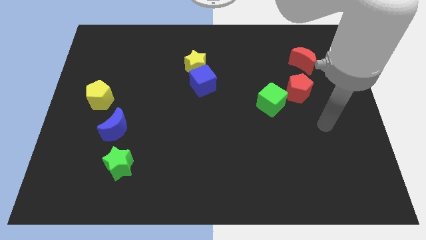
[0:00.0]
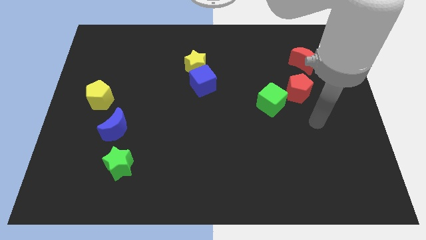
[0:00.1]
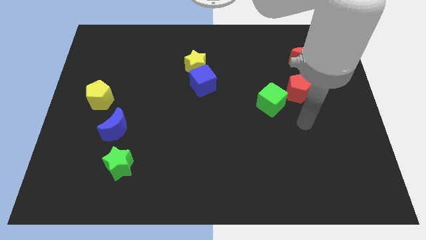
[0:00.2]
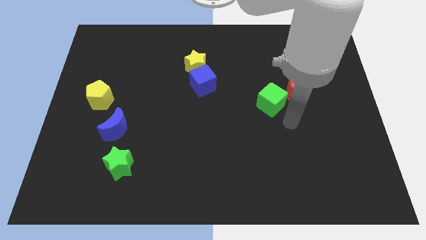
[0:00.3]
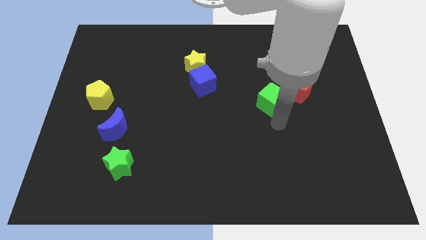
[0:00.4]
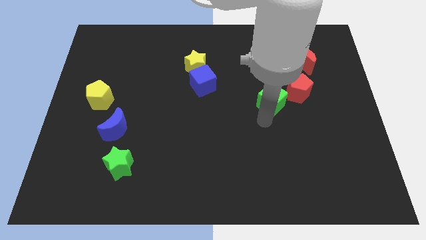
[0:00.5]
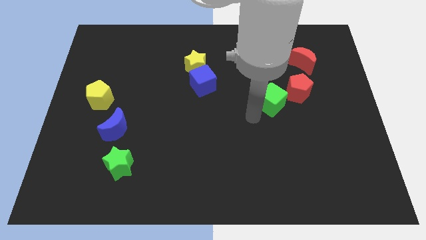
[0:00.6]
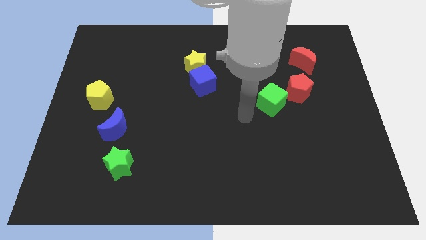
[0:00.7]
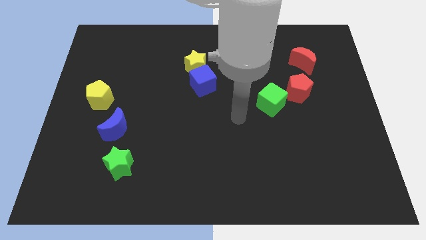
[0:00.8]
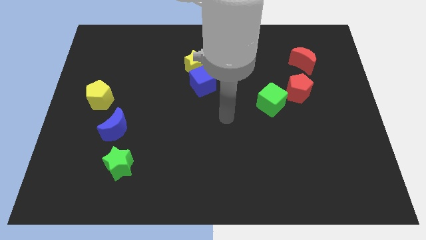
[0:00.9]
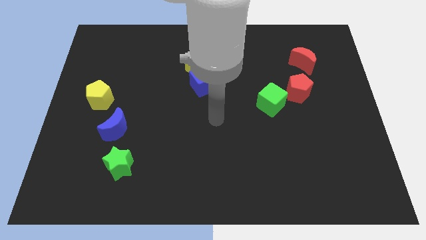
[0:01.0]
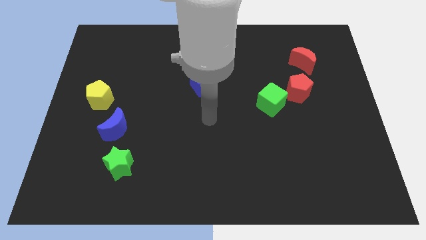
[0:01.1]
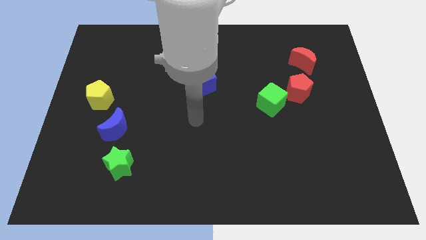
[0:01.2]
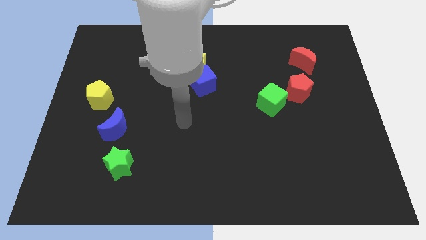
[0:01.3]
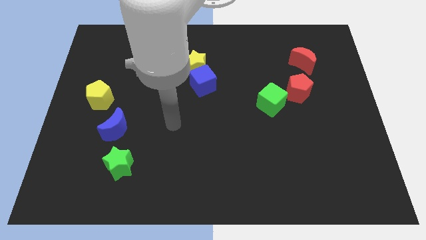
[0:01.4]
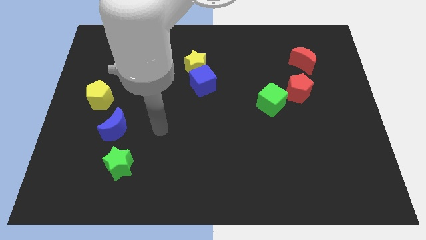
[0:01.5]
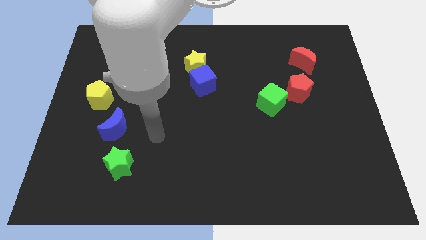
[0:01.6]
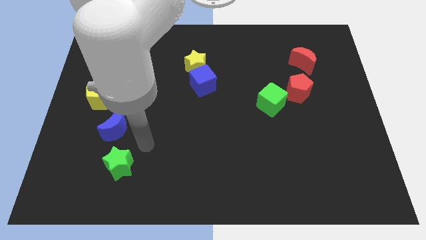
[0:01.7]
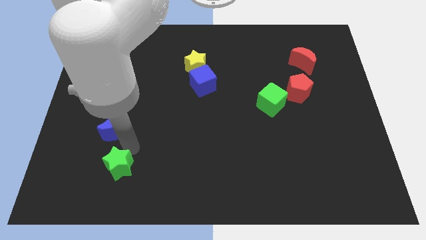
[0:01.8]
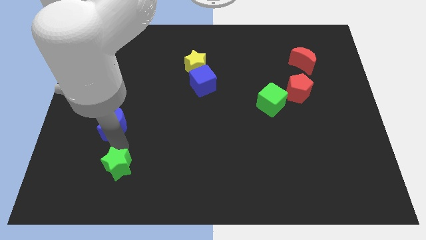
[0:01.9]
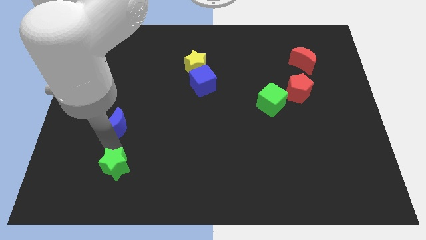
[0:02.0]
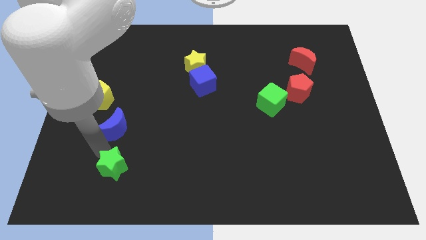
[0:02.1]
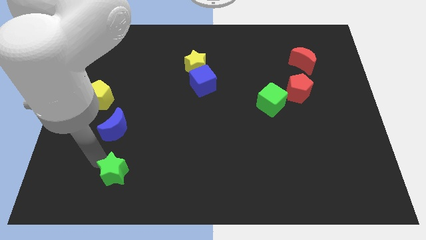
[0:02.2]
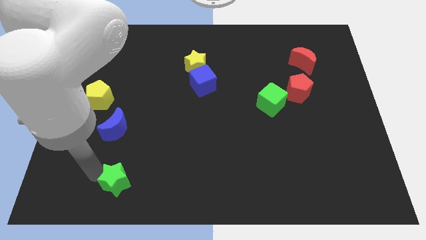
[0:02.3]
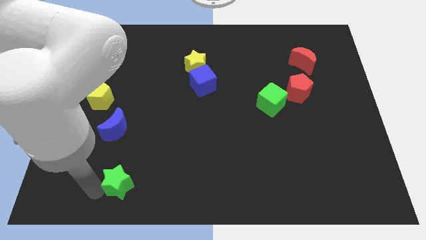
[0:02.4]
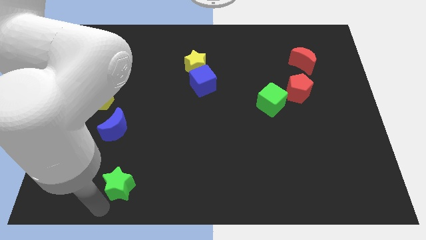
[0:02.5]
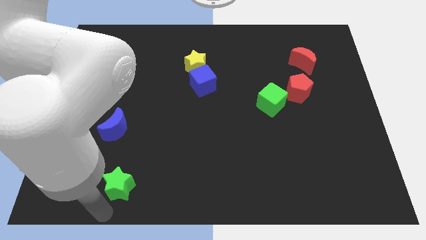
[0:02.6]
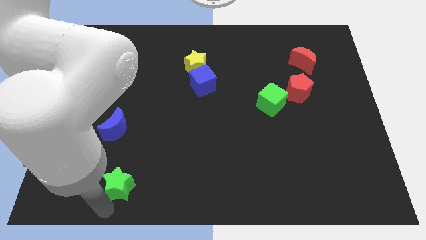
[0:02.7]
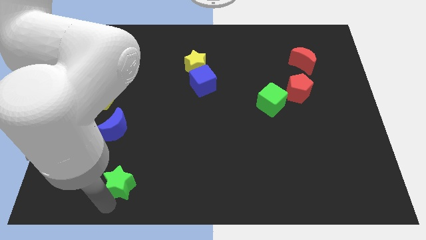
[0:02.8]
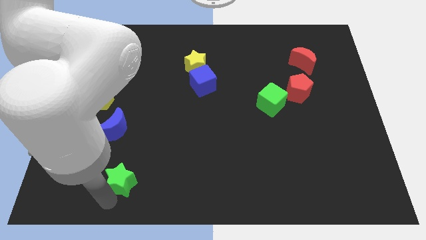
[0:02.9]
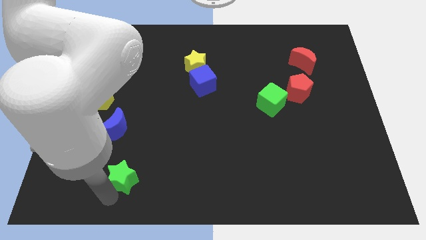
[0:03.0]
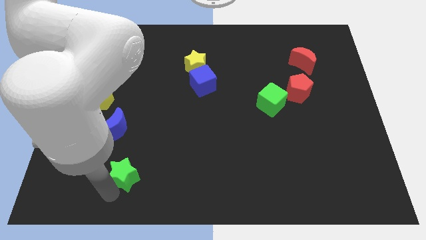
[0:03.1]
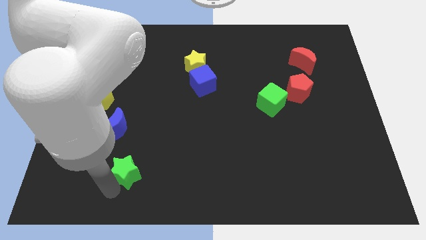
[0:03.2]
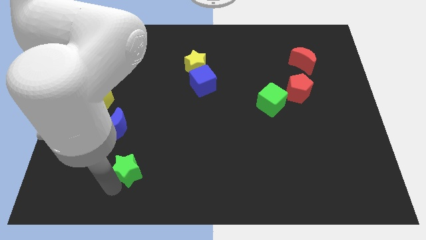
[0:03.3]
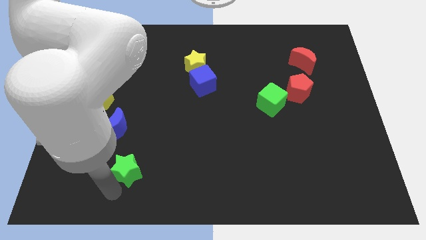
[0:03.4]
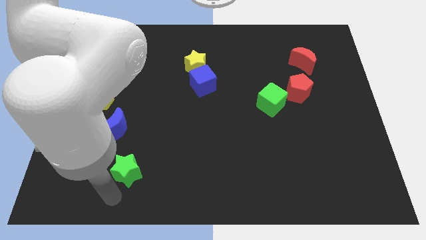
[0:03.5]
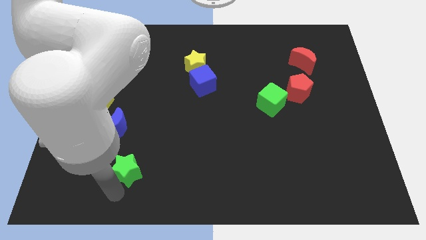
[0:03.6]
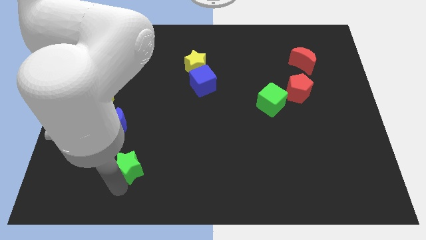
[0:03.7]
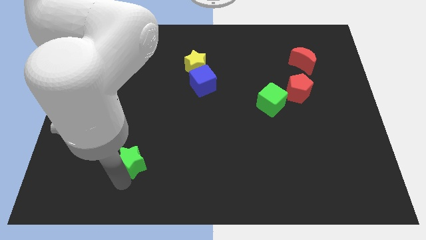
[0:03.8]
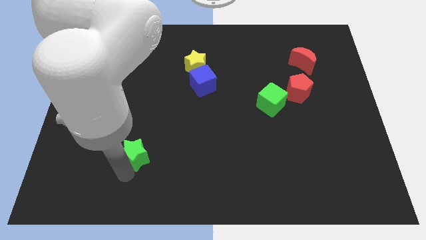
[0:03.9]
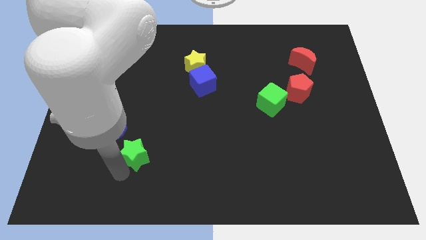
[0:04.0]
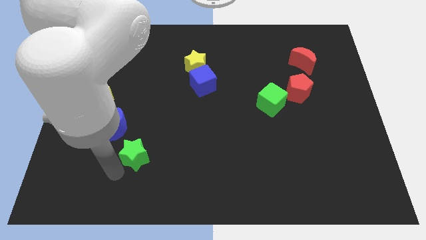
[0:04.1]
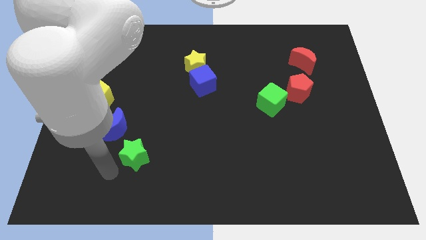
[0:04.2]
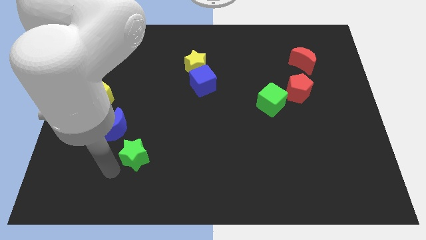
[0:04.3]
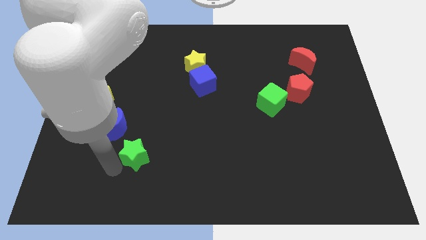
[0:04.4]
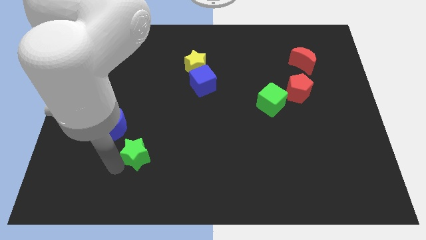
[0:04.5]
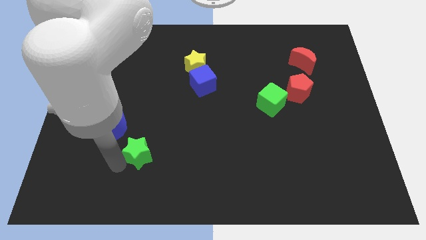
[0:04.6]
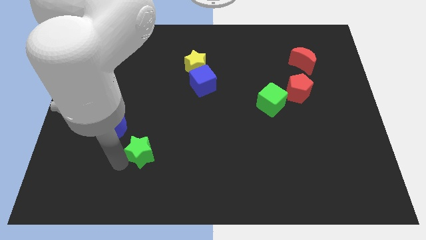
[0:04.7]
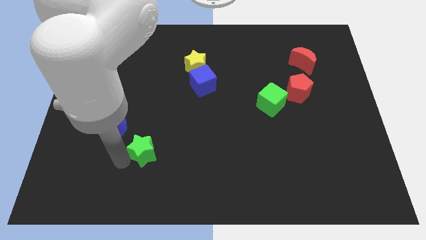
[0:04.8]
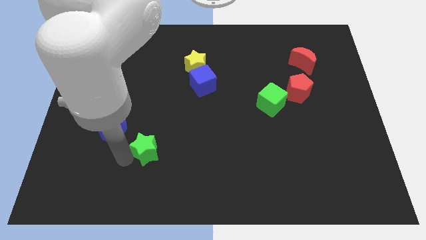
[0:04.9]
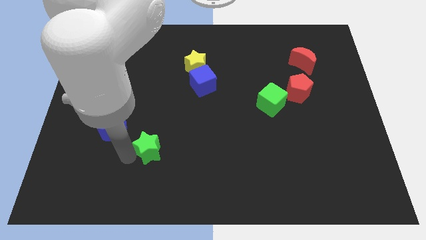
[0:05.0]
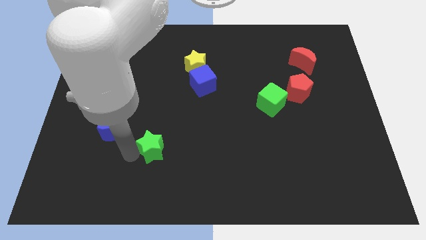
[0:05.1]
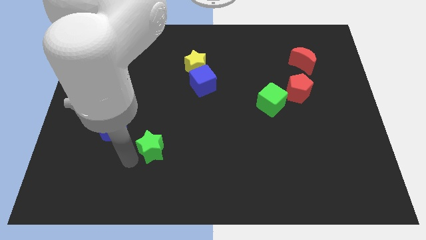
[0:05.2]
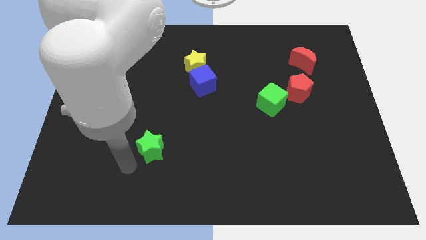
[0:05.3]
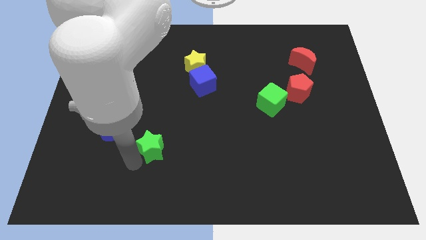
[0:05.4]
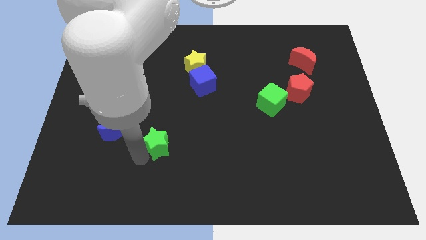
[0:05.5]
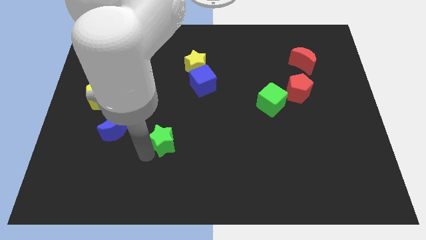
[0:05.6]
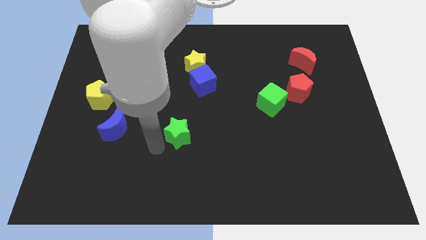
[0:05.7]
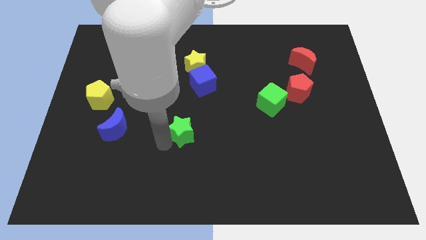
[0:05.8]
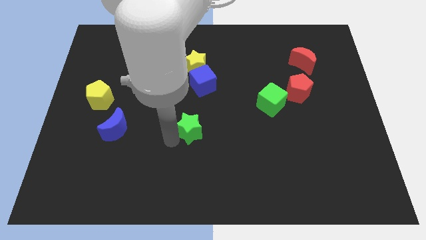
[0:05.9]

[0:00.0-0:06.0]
move the green star to the bottom side of the blue cube

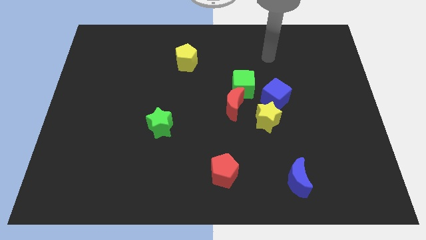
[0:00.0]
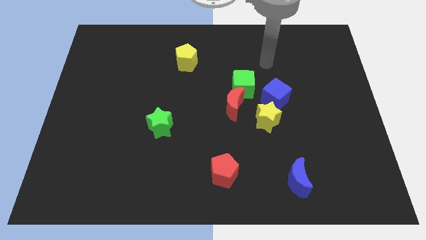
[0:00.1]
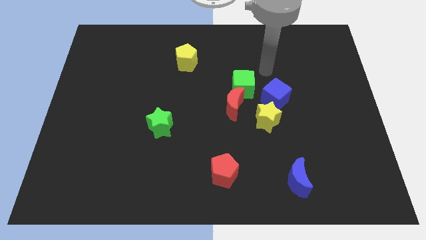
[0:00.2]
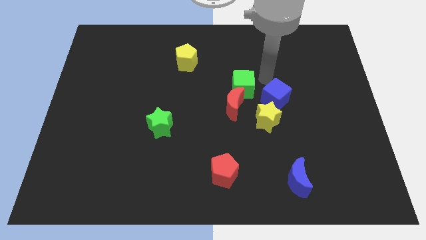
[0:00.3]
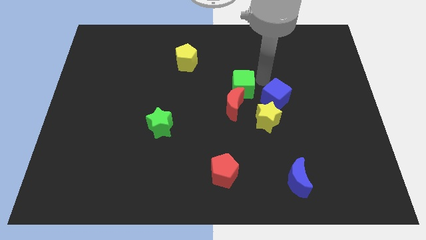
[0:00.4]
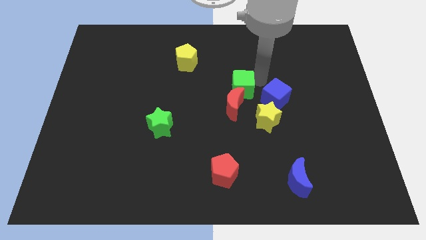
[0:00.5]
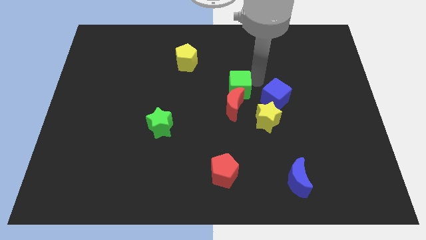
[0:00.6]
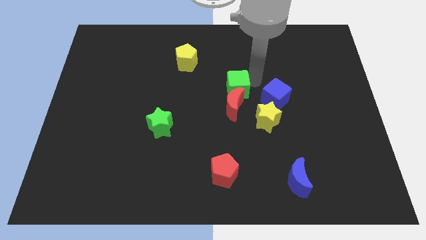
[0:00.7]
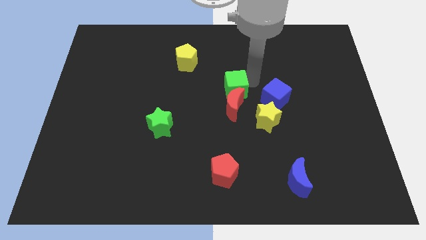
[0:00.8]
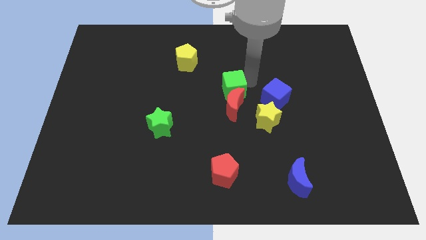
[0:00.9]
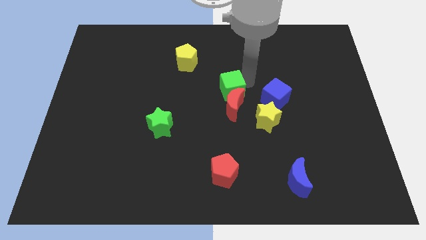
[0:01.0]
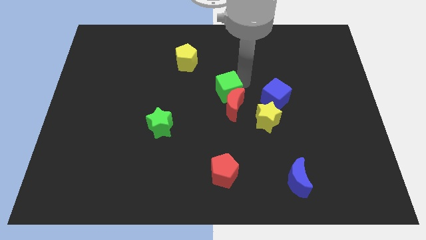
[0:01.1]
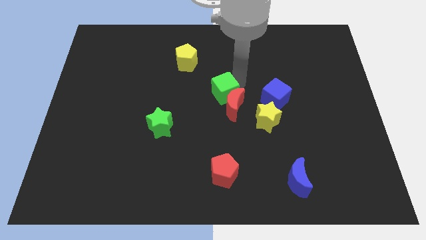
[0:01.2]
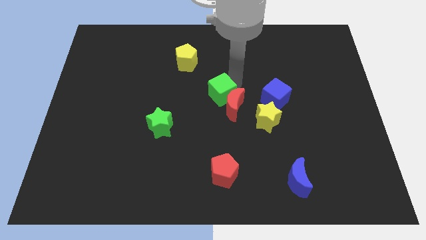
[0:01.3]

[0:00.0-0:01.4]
slide the green cube left of the red moon

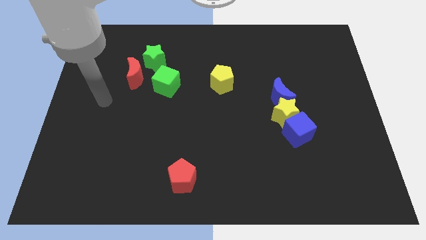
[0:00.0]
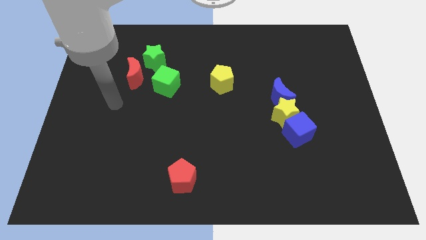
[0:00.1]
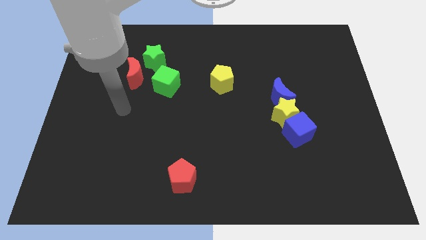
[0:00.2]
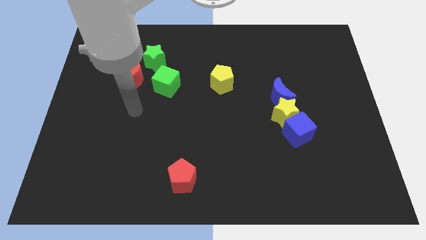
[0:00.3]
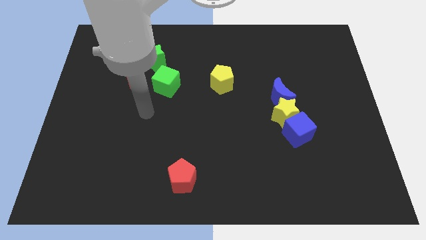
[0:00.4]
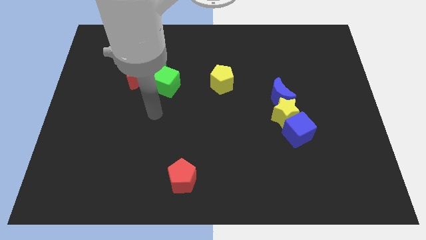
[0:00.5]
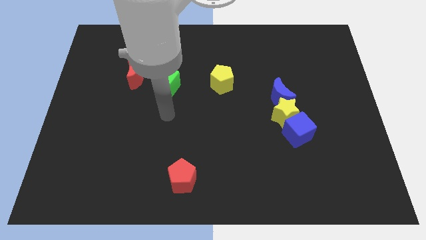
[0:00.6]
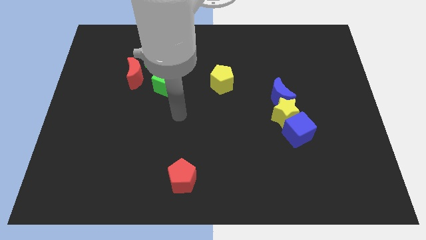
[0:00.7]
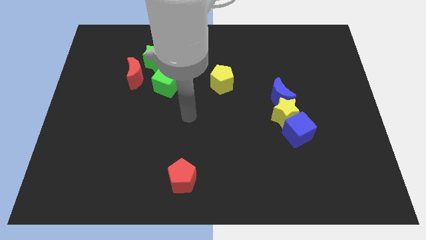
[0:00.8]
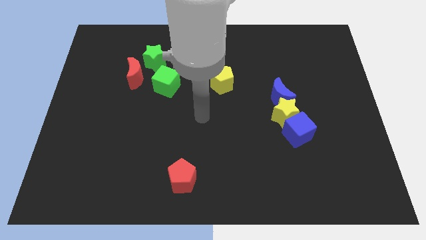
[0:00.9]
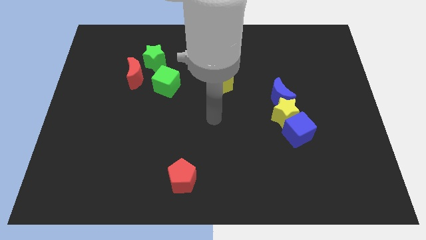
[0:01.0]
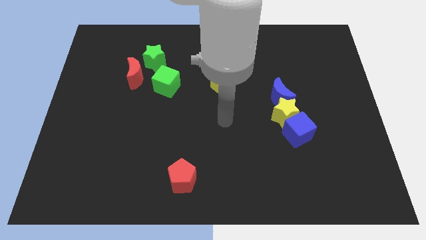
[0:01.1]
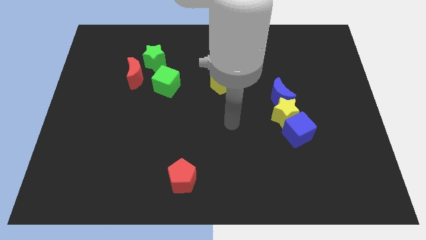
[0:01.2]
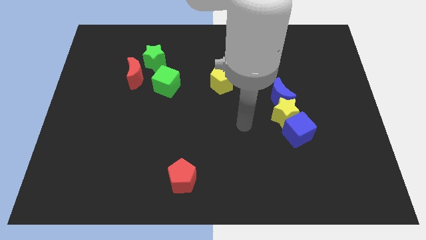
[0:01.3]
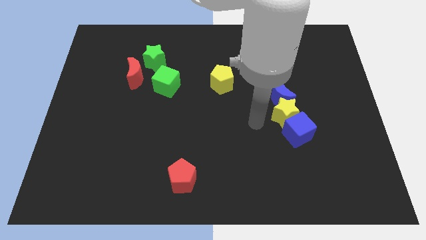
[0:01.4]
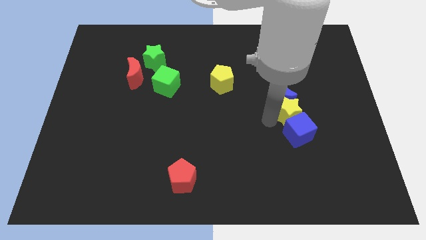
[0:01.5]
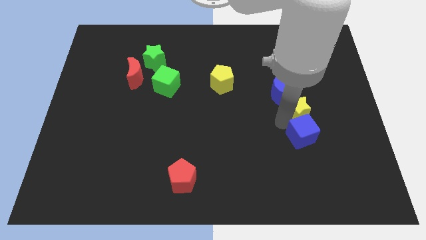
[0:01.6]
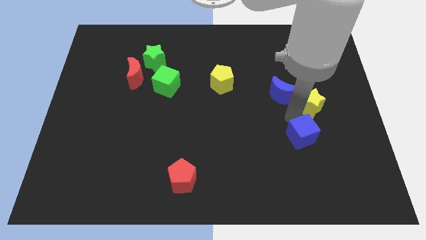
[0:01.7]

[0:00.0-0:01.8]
put the blue moon to the right of the yellow pentagon
